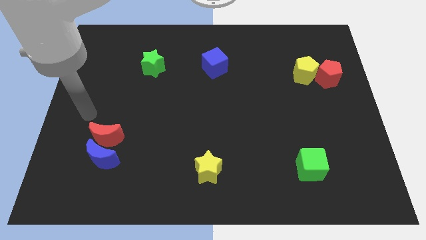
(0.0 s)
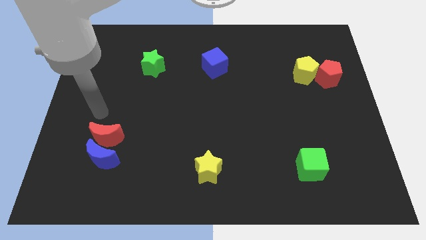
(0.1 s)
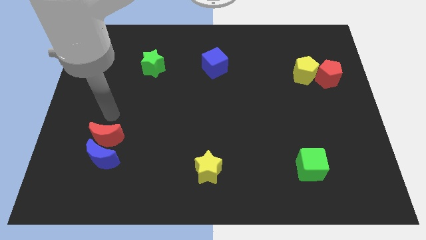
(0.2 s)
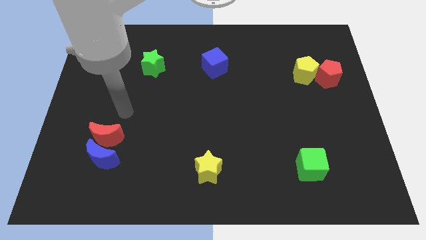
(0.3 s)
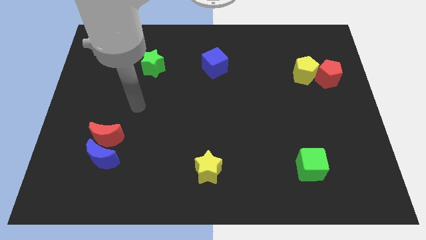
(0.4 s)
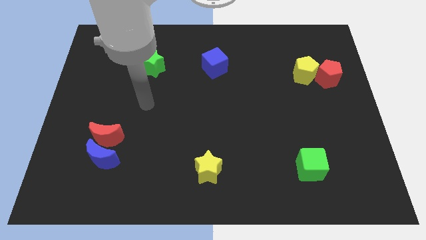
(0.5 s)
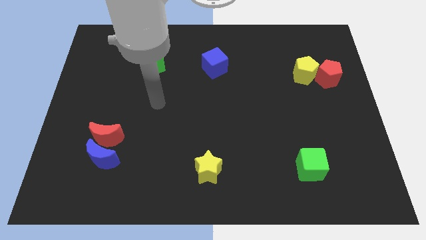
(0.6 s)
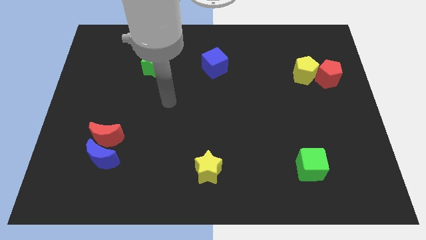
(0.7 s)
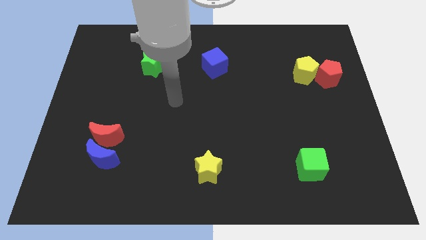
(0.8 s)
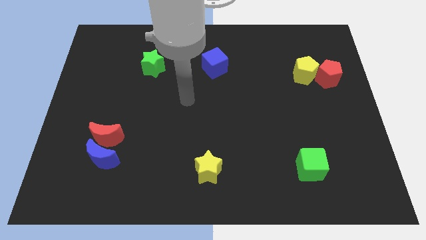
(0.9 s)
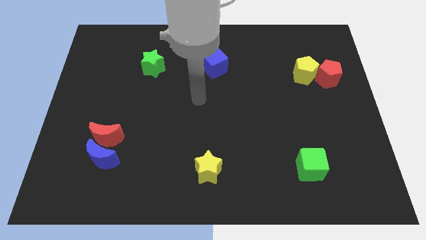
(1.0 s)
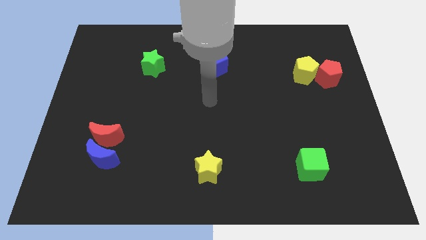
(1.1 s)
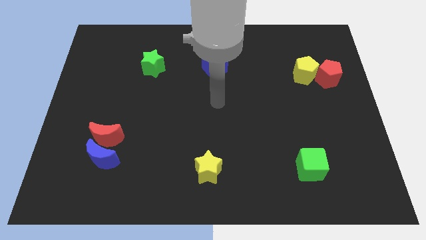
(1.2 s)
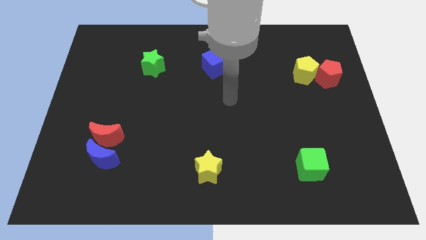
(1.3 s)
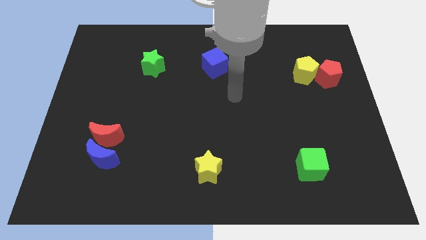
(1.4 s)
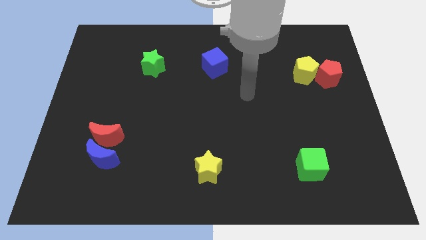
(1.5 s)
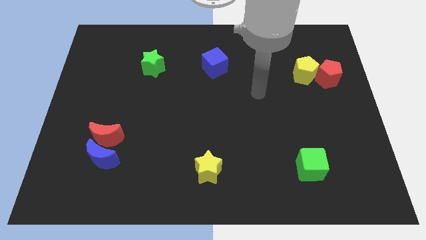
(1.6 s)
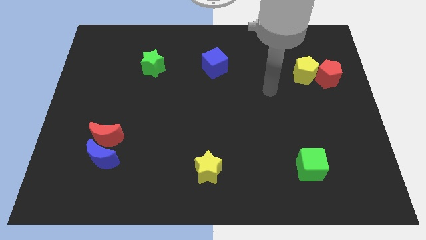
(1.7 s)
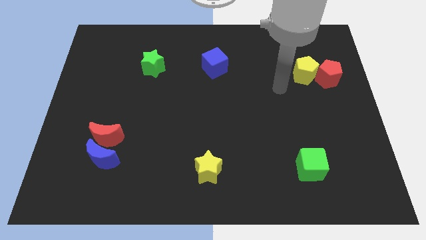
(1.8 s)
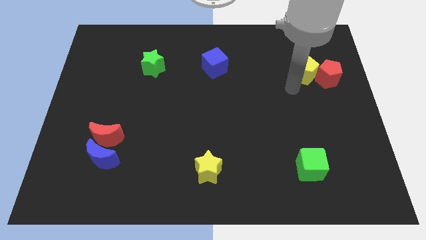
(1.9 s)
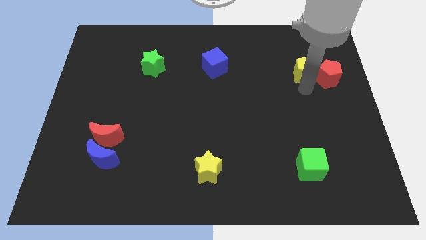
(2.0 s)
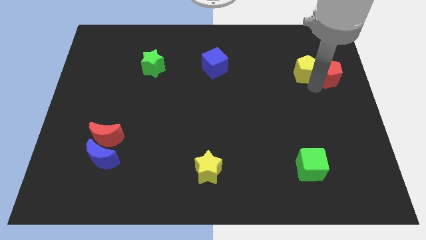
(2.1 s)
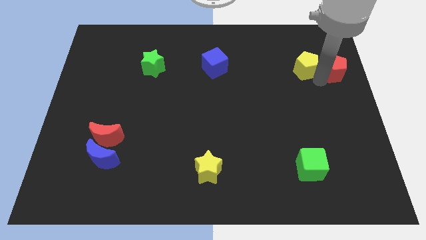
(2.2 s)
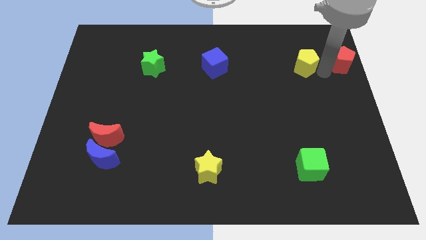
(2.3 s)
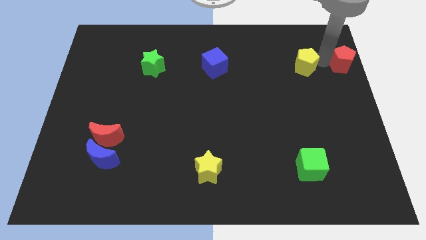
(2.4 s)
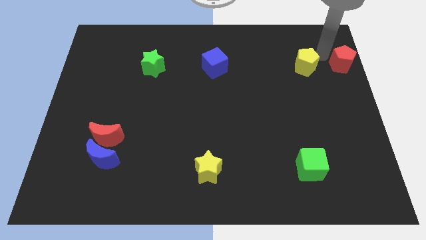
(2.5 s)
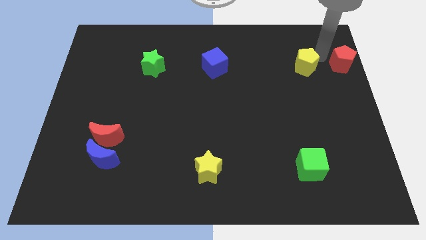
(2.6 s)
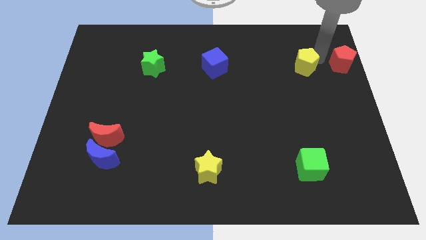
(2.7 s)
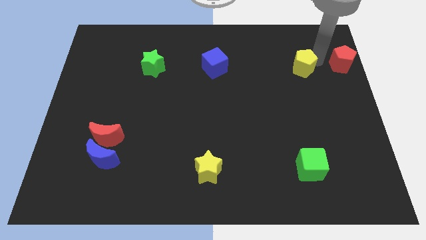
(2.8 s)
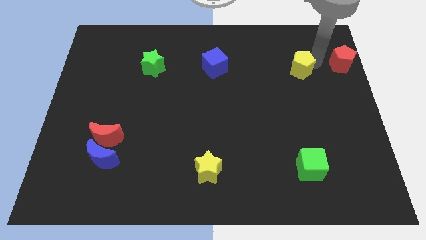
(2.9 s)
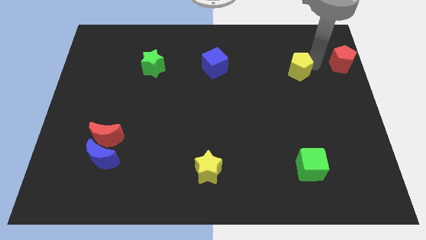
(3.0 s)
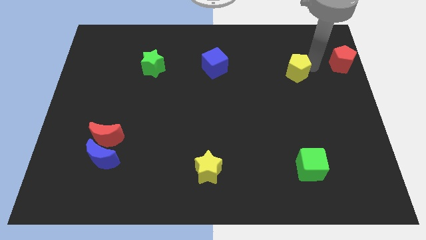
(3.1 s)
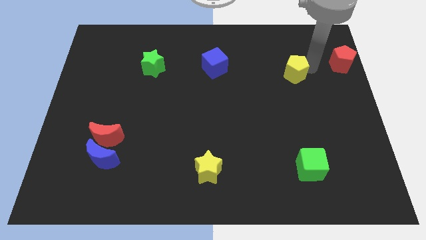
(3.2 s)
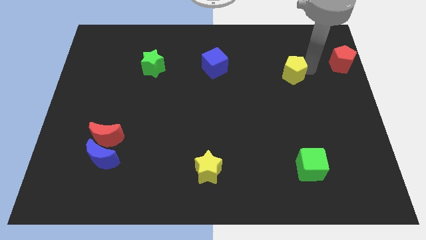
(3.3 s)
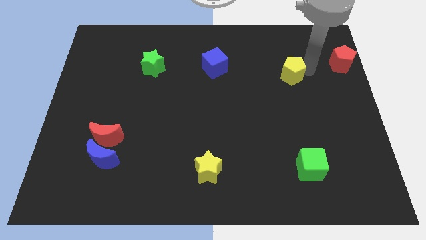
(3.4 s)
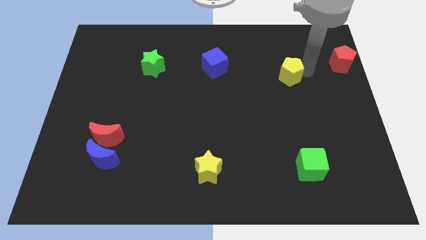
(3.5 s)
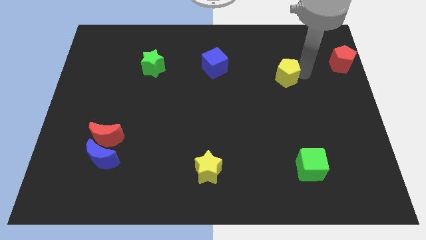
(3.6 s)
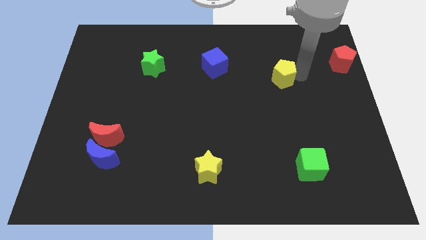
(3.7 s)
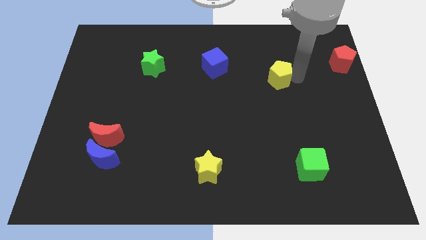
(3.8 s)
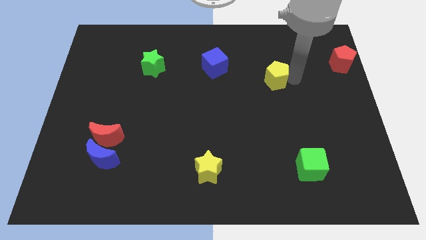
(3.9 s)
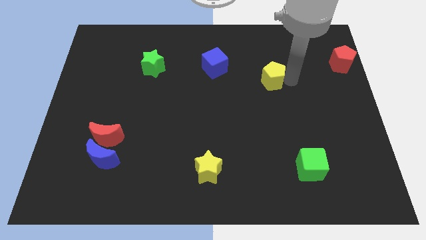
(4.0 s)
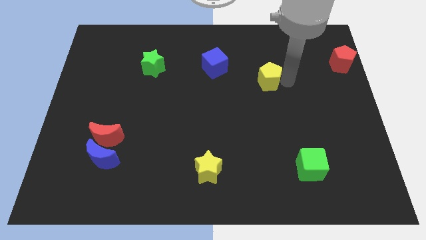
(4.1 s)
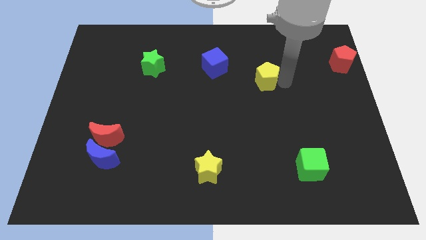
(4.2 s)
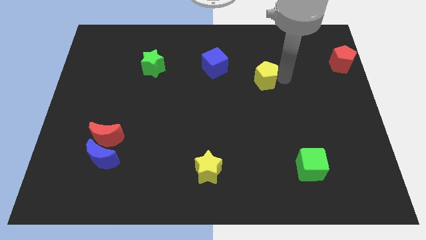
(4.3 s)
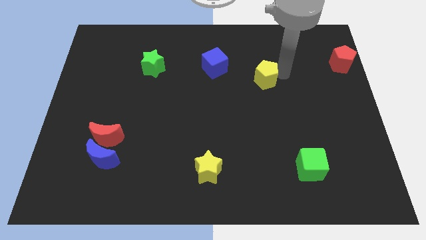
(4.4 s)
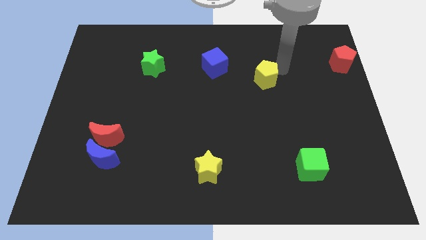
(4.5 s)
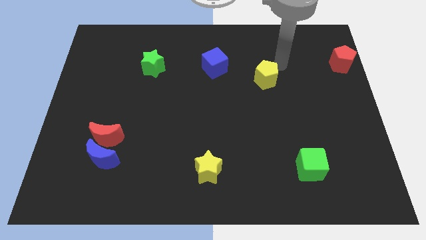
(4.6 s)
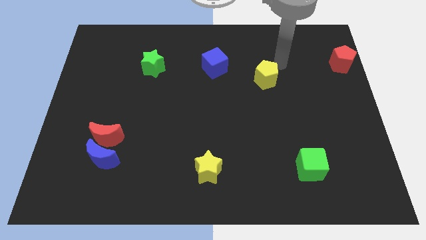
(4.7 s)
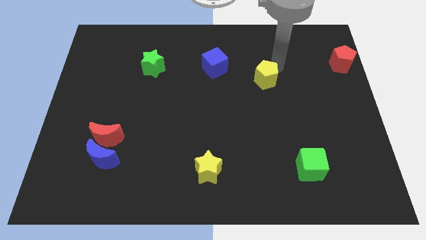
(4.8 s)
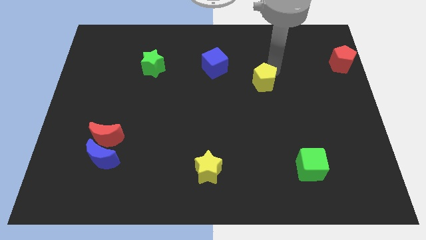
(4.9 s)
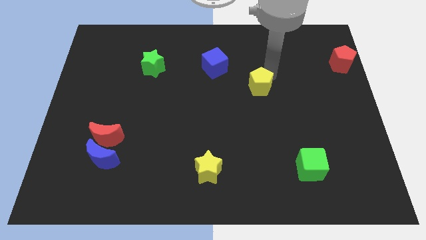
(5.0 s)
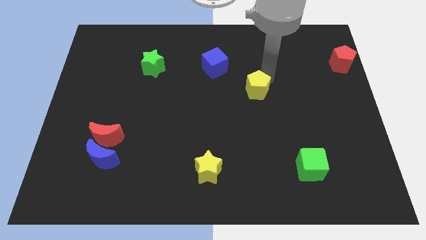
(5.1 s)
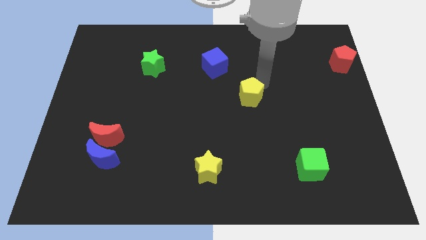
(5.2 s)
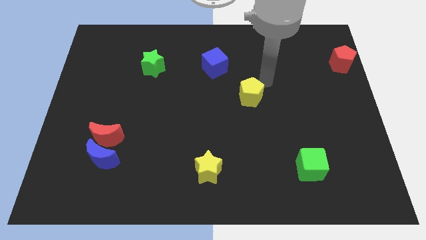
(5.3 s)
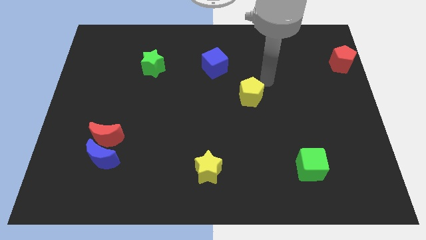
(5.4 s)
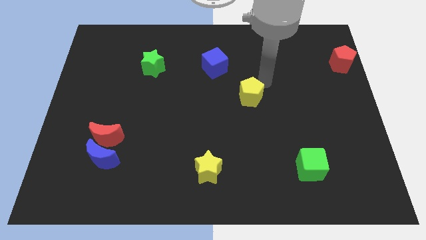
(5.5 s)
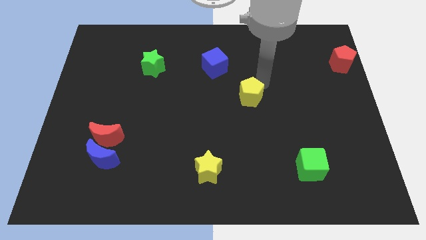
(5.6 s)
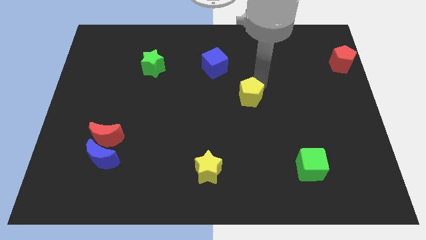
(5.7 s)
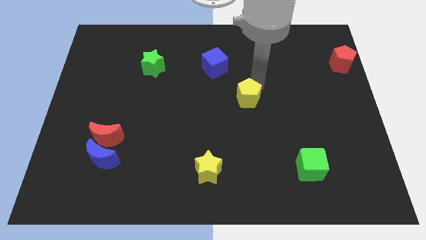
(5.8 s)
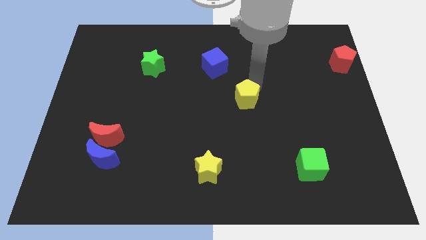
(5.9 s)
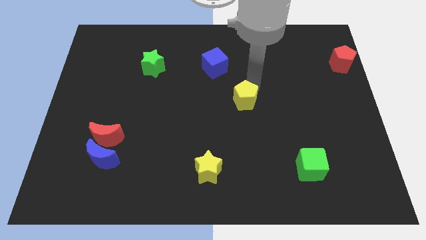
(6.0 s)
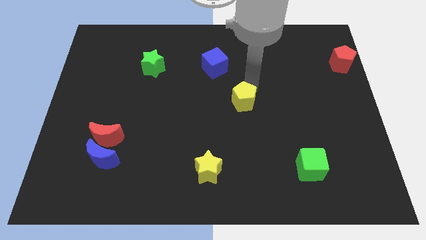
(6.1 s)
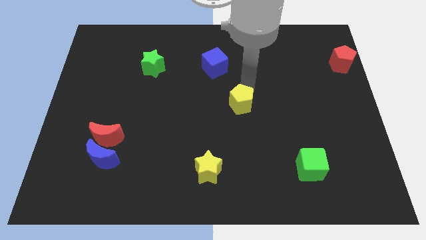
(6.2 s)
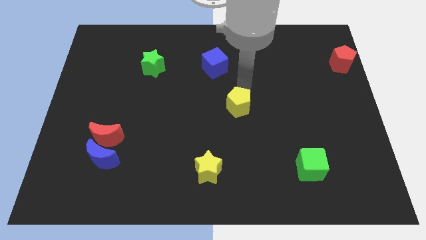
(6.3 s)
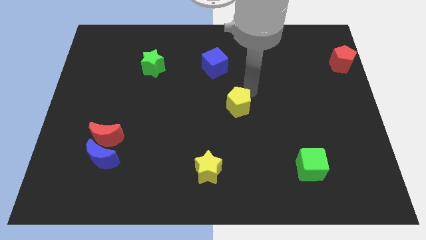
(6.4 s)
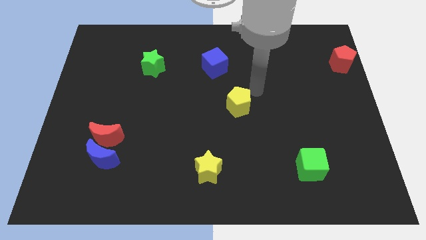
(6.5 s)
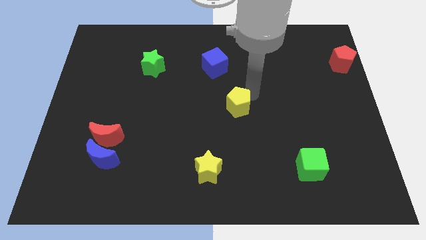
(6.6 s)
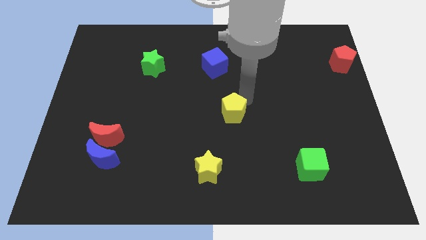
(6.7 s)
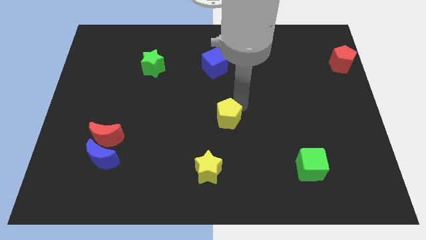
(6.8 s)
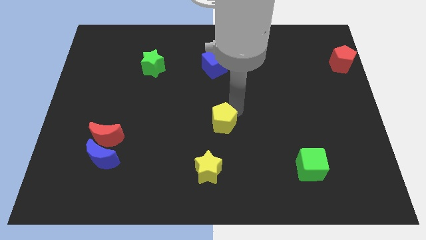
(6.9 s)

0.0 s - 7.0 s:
slide the yellow pentagon to the top of the yellow star

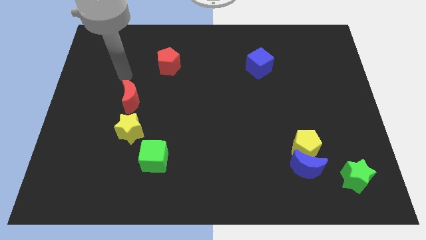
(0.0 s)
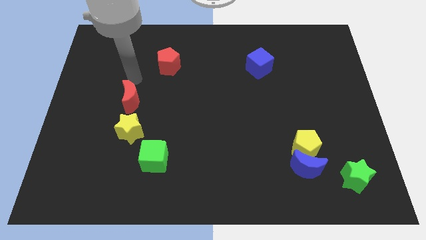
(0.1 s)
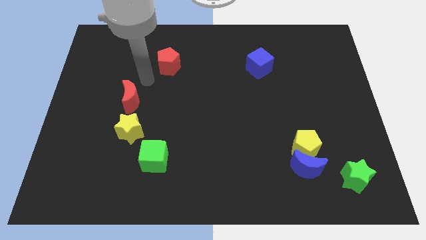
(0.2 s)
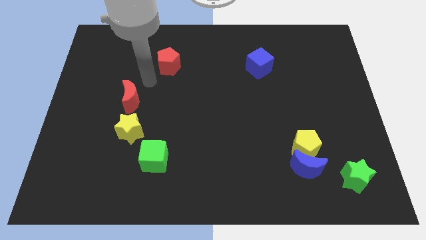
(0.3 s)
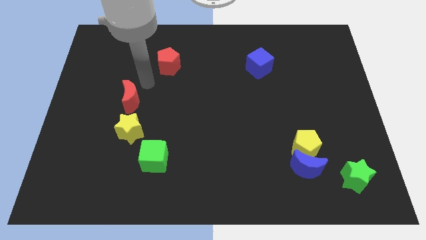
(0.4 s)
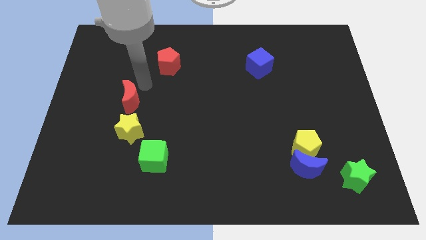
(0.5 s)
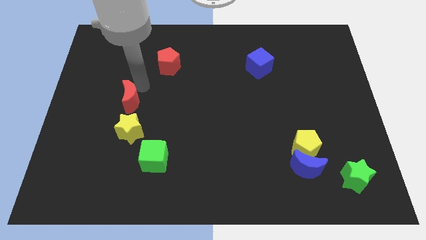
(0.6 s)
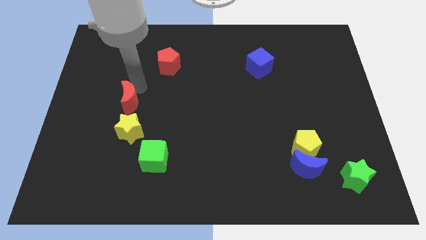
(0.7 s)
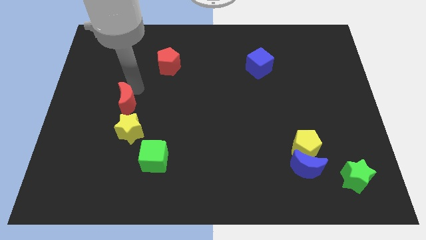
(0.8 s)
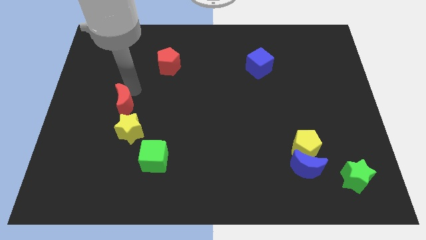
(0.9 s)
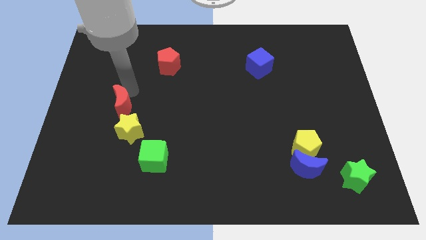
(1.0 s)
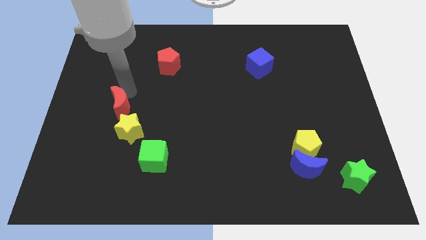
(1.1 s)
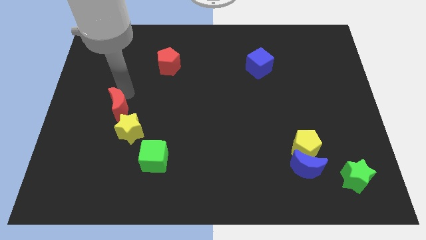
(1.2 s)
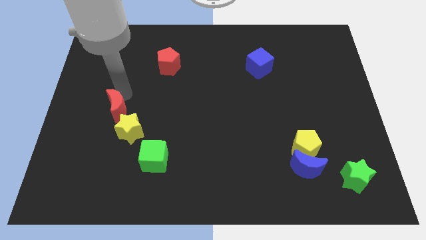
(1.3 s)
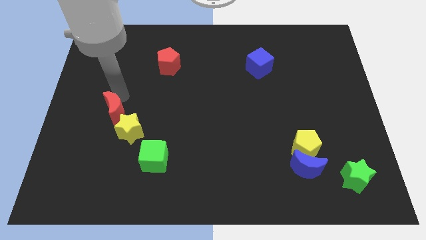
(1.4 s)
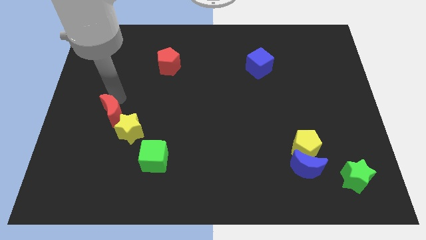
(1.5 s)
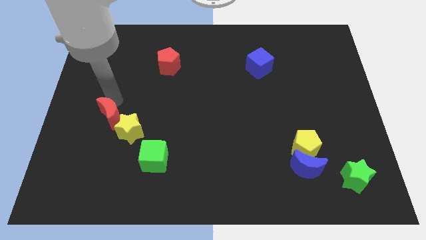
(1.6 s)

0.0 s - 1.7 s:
push the red moon to the left of the yellow star
